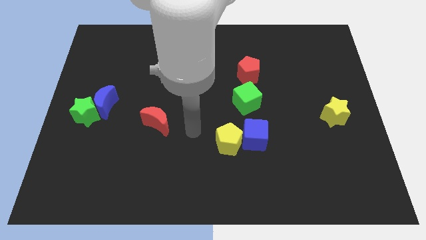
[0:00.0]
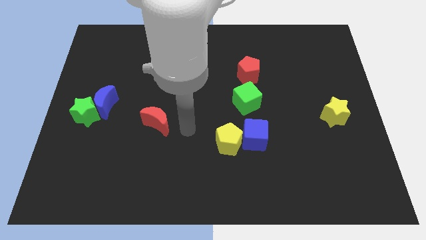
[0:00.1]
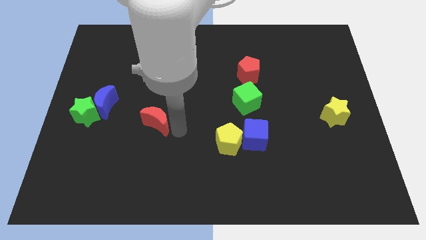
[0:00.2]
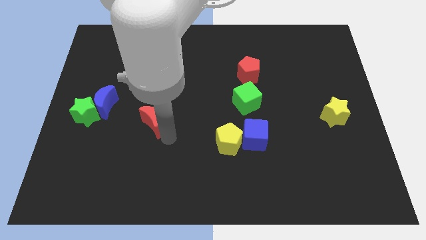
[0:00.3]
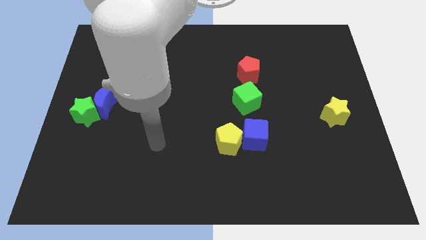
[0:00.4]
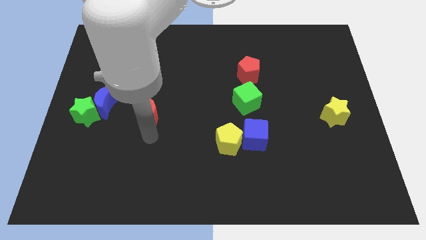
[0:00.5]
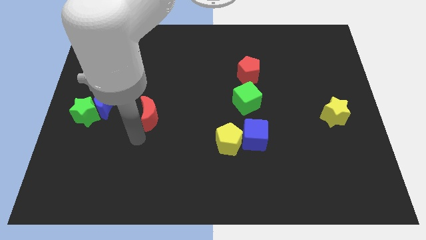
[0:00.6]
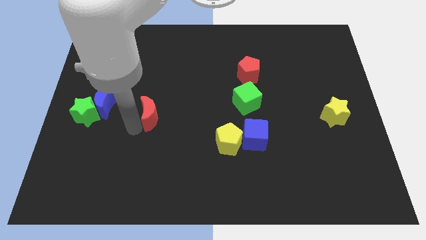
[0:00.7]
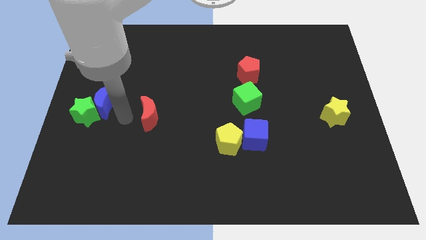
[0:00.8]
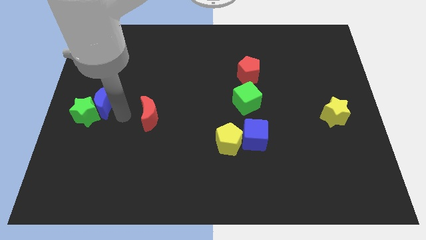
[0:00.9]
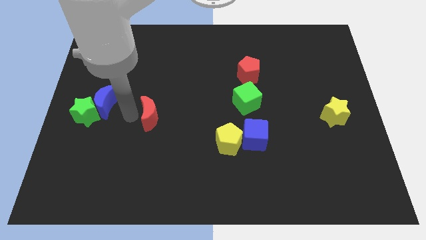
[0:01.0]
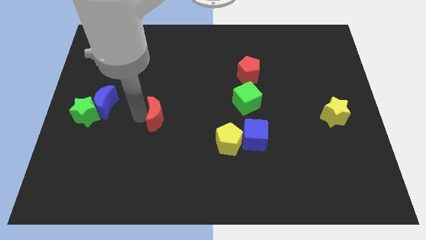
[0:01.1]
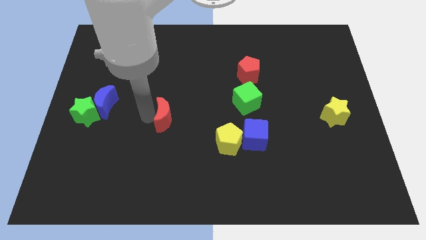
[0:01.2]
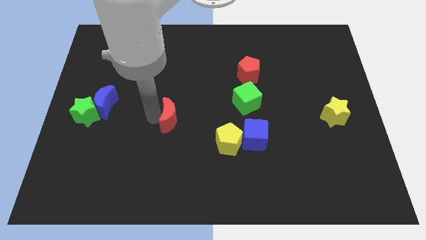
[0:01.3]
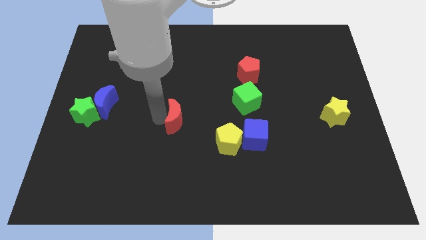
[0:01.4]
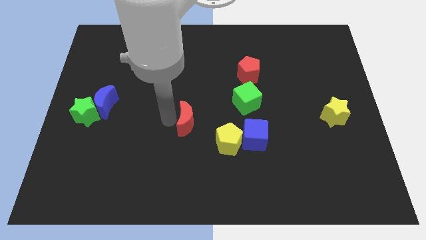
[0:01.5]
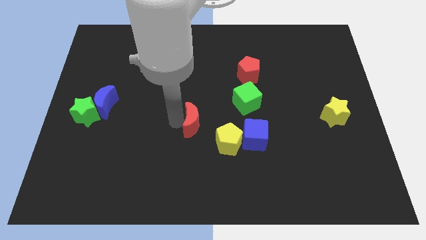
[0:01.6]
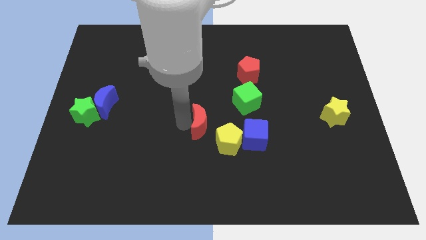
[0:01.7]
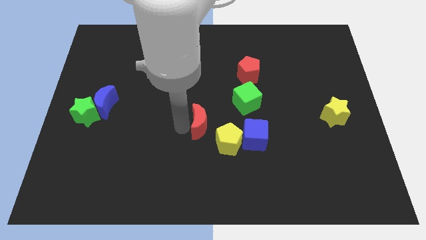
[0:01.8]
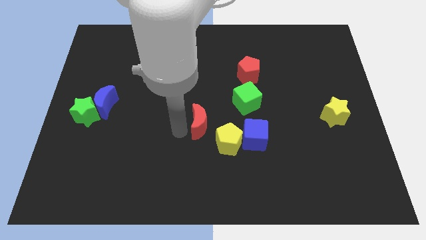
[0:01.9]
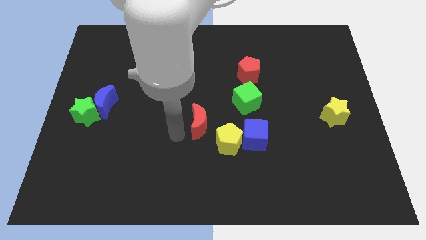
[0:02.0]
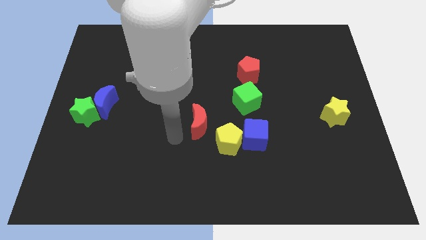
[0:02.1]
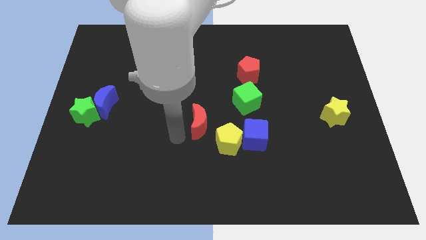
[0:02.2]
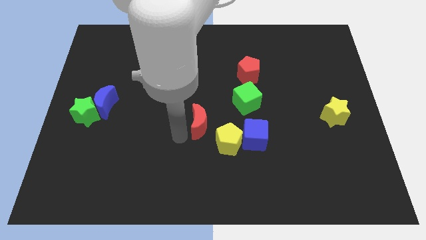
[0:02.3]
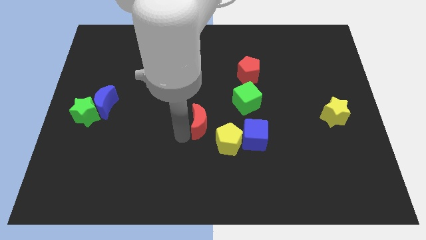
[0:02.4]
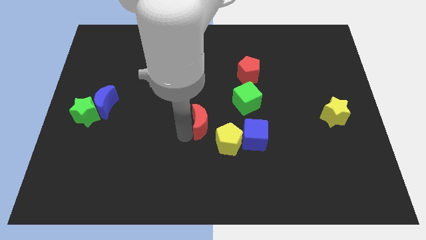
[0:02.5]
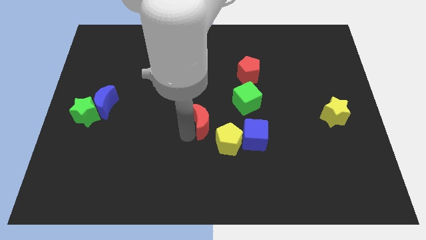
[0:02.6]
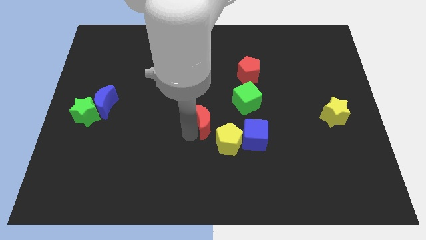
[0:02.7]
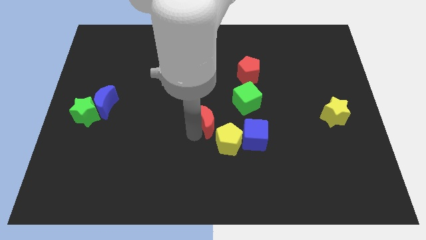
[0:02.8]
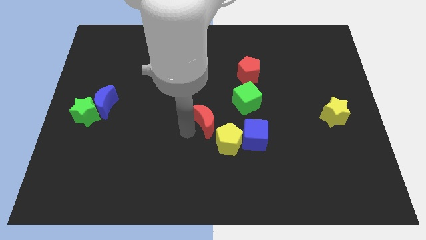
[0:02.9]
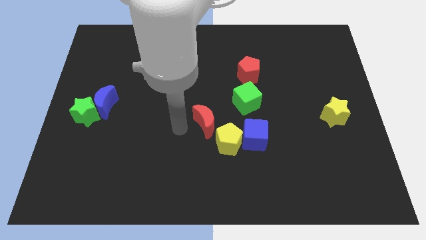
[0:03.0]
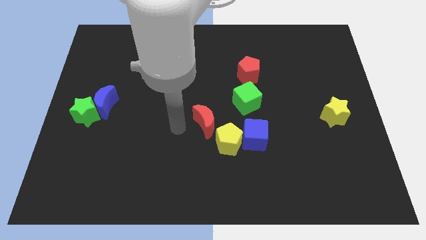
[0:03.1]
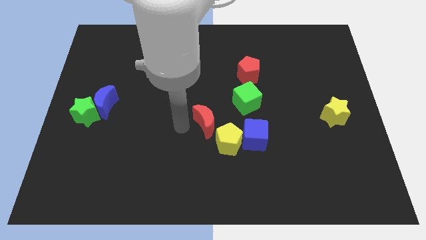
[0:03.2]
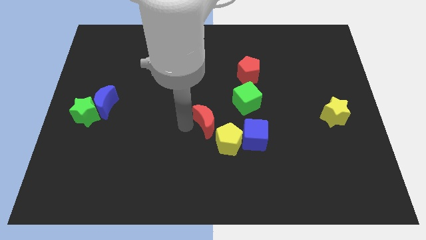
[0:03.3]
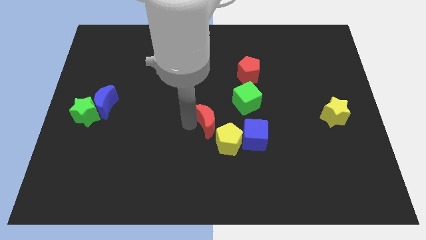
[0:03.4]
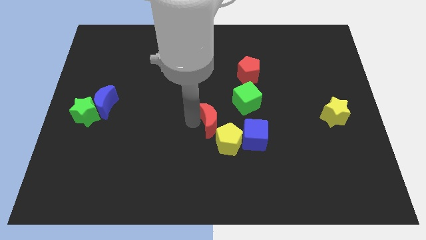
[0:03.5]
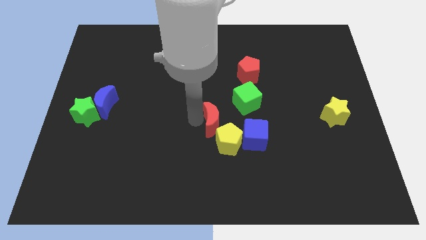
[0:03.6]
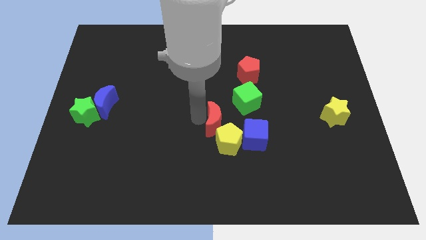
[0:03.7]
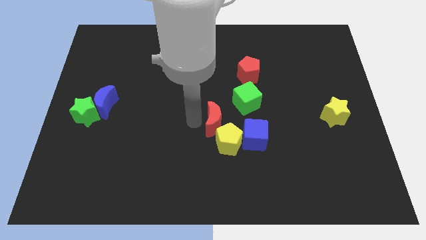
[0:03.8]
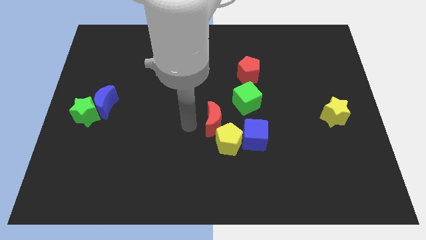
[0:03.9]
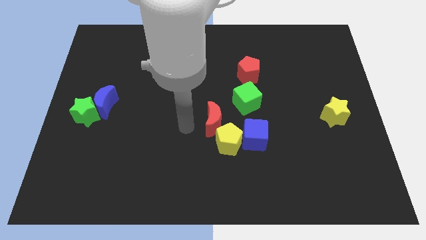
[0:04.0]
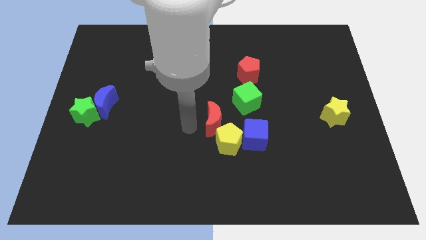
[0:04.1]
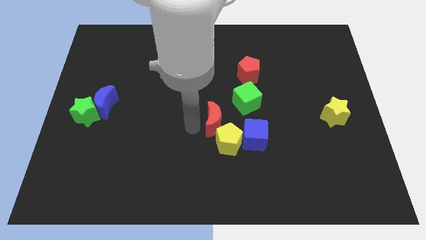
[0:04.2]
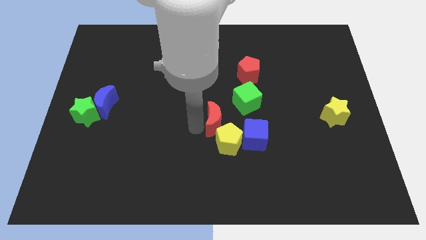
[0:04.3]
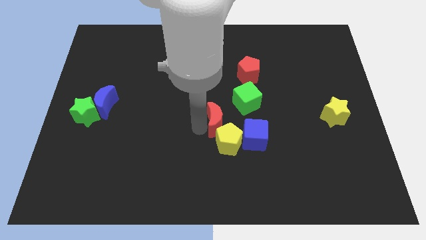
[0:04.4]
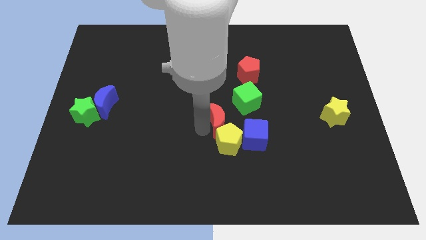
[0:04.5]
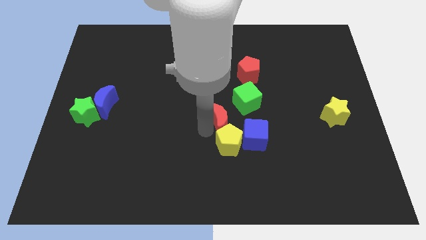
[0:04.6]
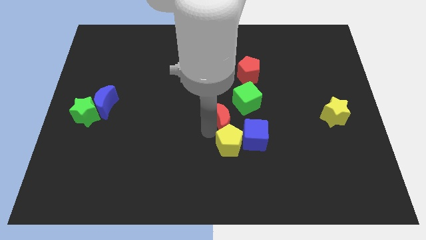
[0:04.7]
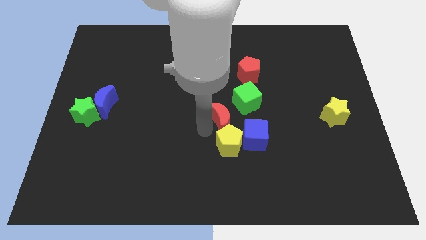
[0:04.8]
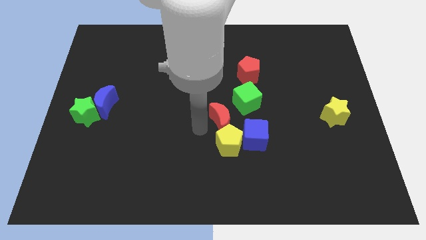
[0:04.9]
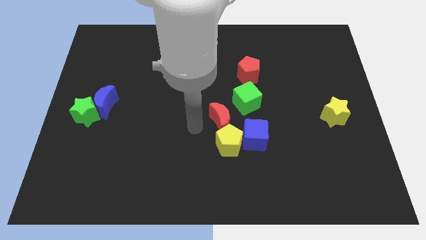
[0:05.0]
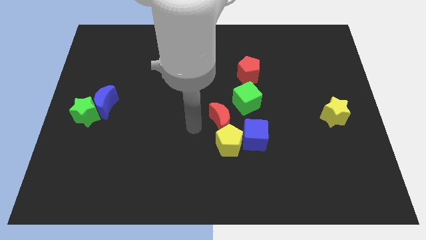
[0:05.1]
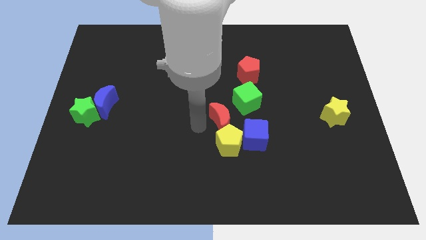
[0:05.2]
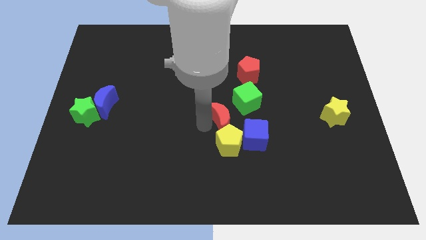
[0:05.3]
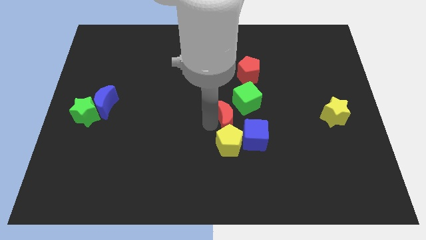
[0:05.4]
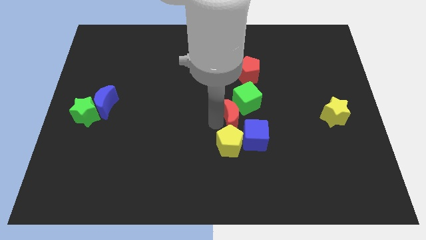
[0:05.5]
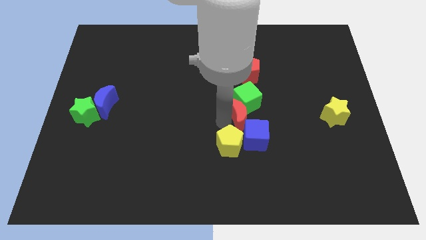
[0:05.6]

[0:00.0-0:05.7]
slide the red moon to the bottom of the red pentagon

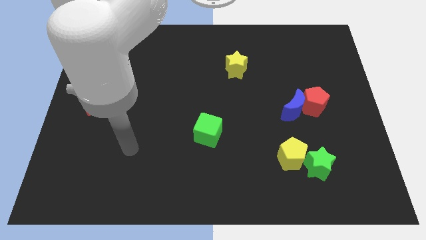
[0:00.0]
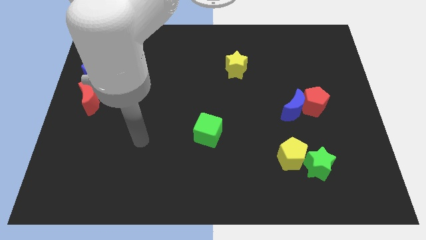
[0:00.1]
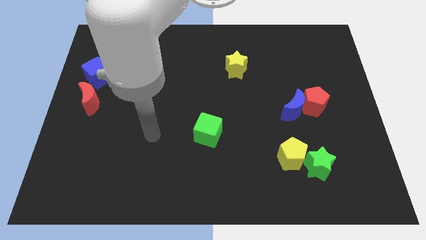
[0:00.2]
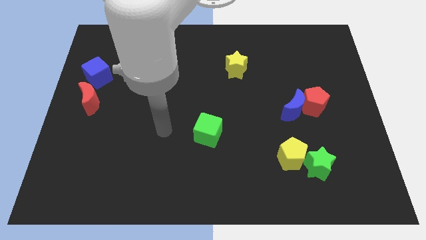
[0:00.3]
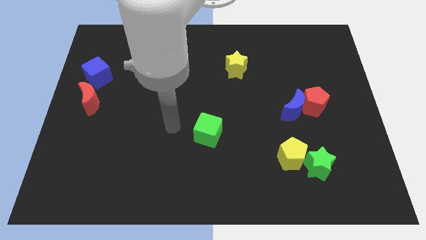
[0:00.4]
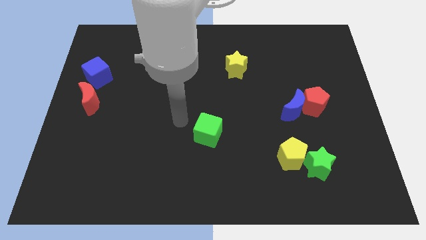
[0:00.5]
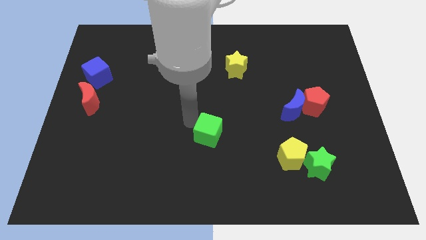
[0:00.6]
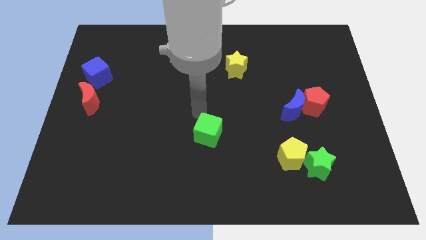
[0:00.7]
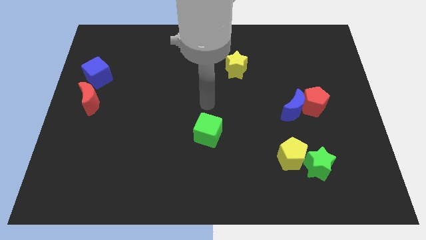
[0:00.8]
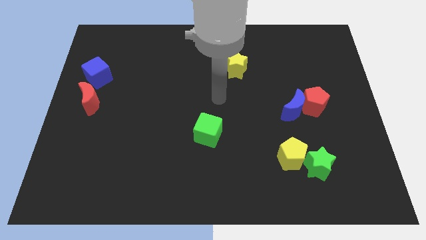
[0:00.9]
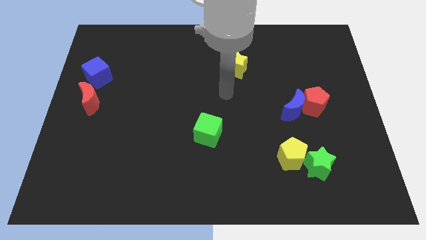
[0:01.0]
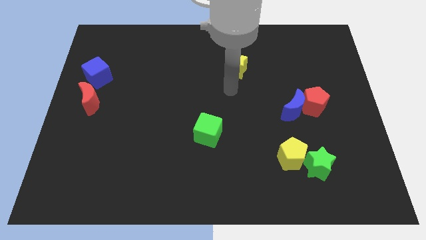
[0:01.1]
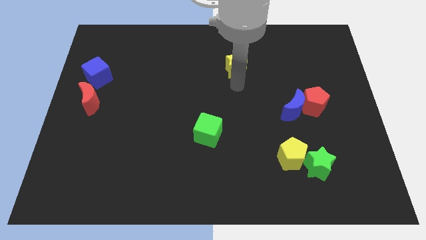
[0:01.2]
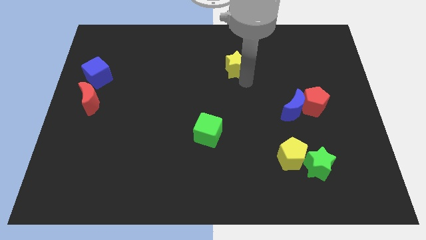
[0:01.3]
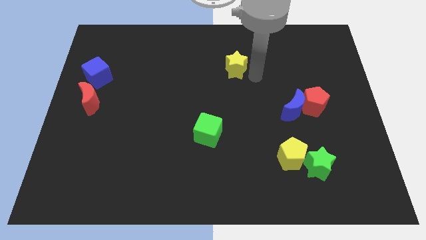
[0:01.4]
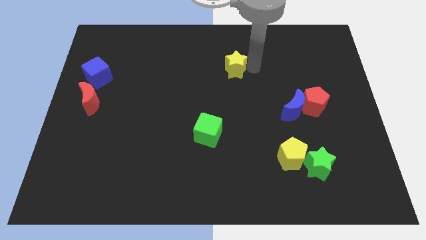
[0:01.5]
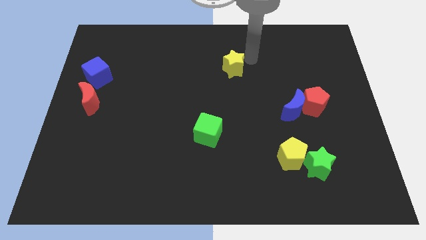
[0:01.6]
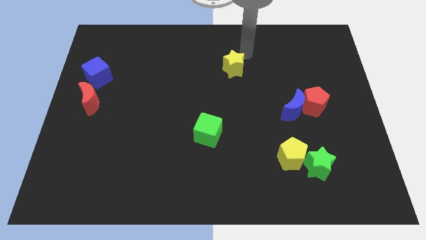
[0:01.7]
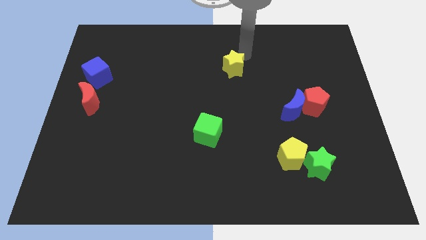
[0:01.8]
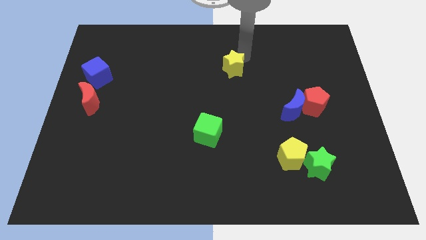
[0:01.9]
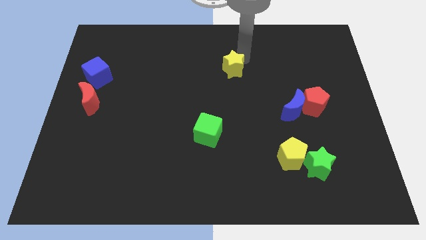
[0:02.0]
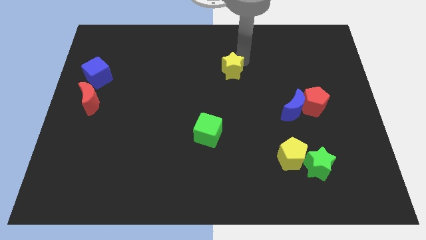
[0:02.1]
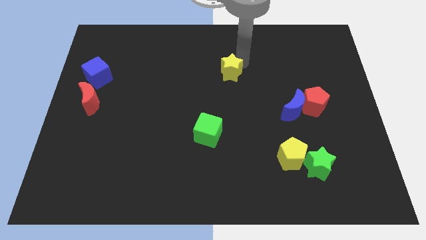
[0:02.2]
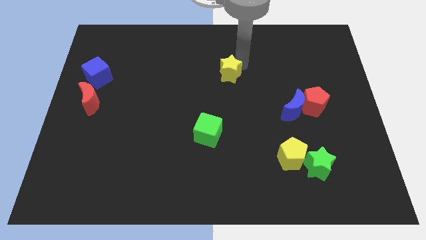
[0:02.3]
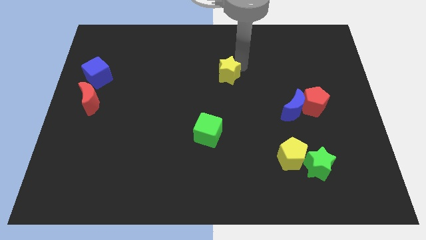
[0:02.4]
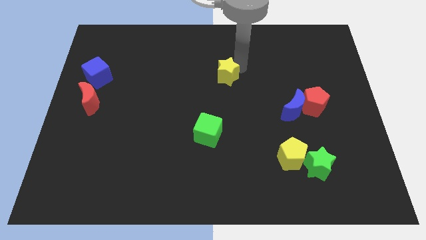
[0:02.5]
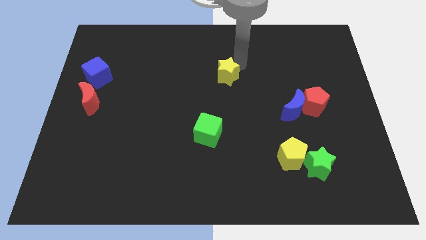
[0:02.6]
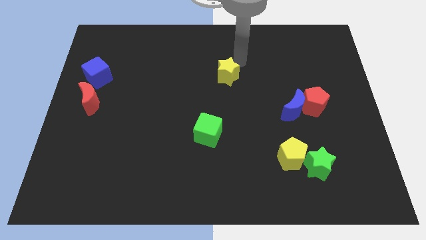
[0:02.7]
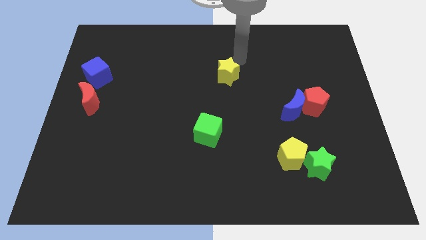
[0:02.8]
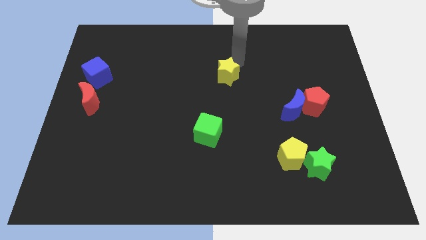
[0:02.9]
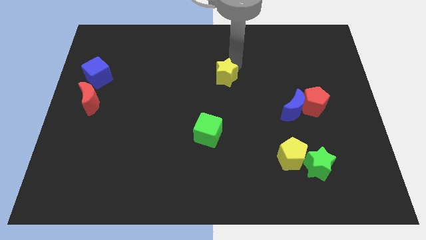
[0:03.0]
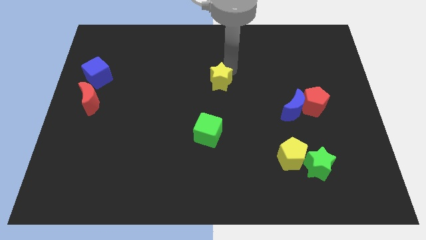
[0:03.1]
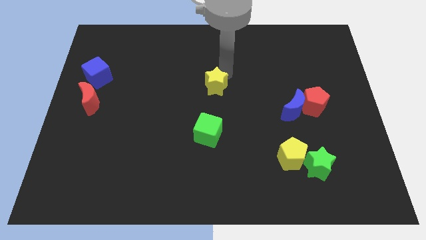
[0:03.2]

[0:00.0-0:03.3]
move the yellow star to the top side of the green cube
